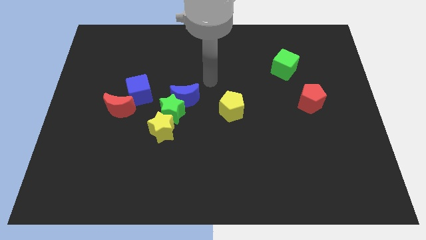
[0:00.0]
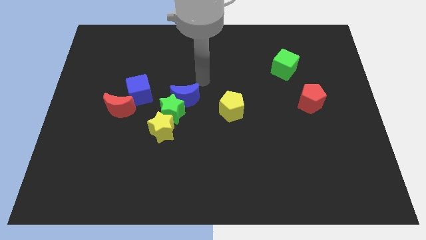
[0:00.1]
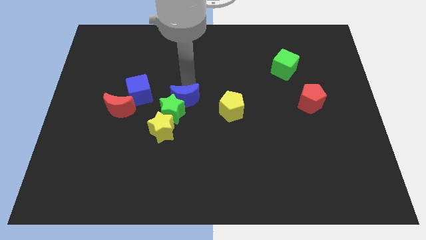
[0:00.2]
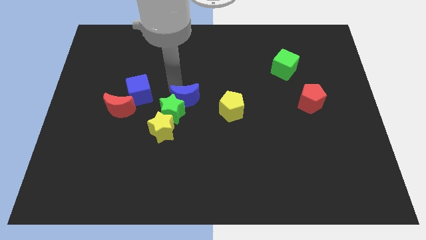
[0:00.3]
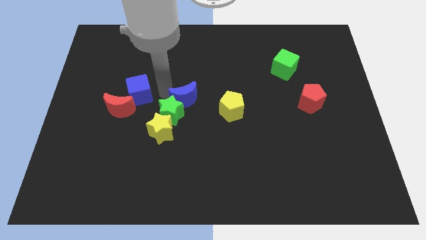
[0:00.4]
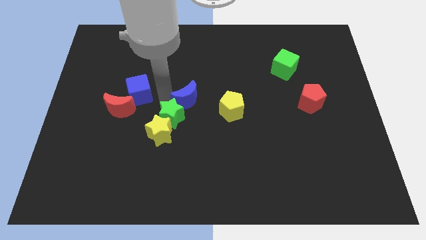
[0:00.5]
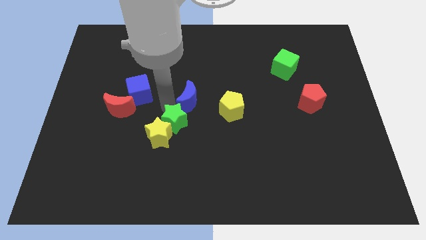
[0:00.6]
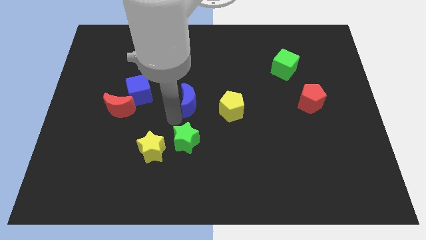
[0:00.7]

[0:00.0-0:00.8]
move the blue moon away from the green star

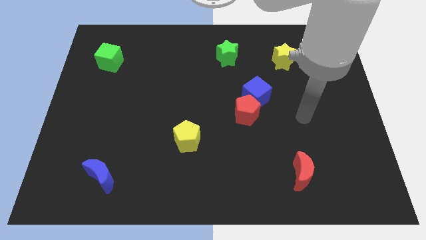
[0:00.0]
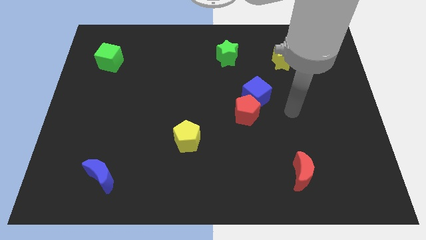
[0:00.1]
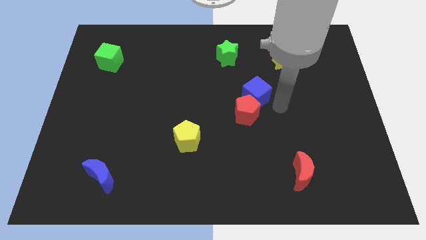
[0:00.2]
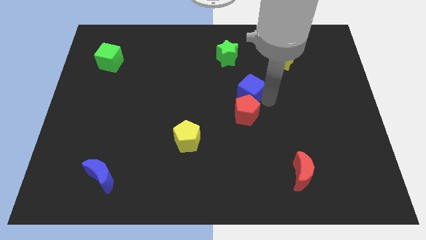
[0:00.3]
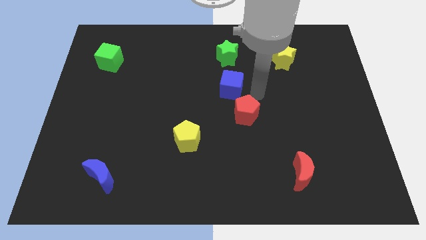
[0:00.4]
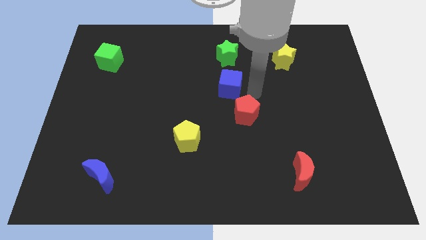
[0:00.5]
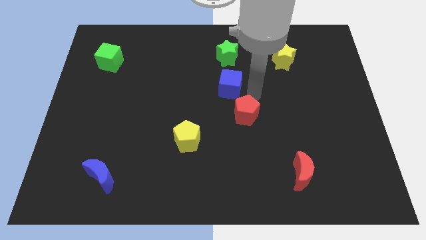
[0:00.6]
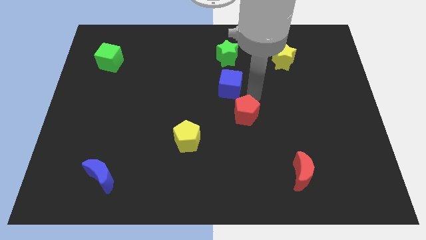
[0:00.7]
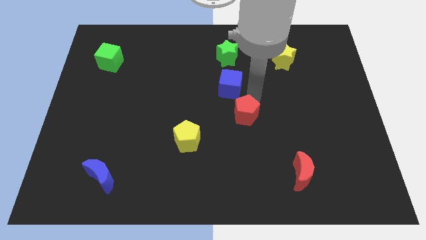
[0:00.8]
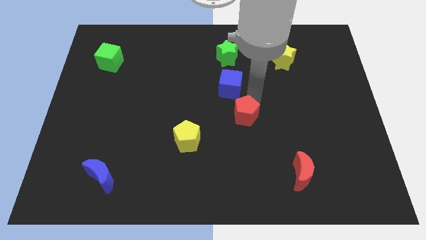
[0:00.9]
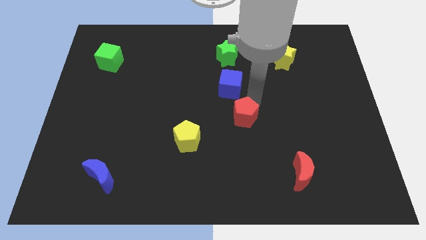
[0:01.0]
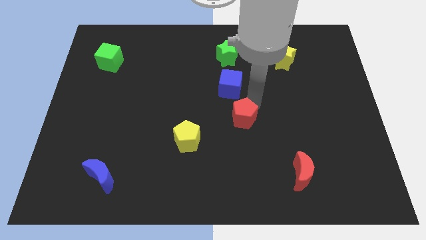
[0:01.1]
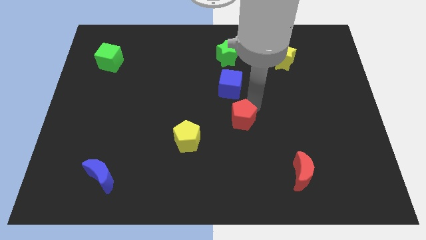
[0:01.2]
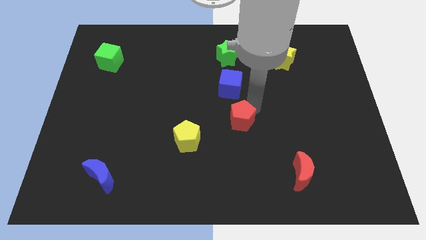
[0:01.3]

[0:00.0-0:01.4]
pull the red pentagon apart from the blue cube

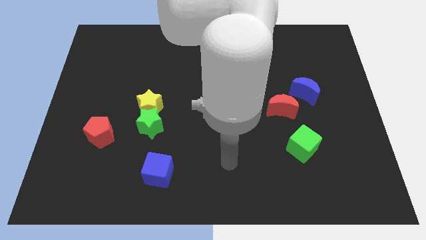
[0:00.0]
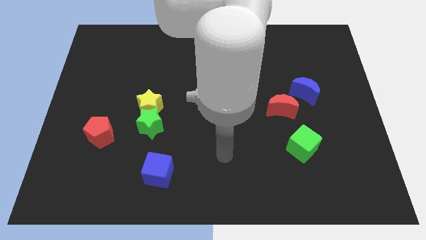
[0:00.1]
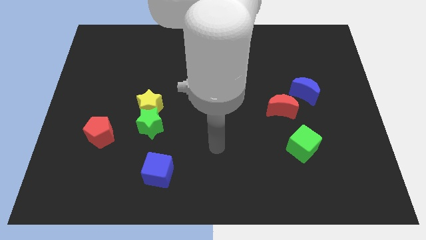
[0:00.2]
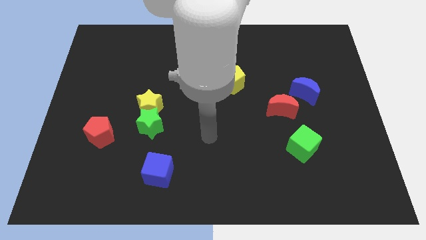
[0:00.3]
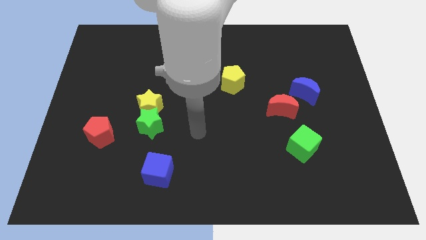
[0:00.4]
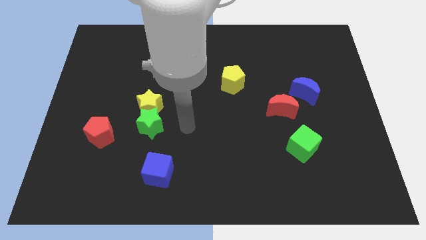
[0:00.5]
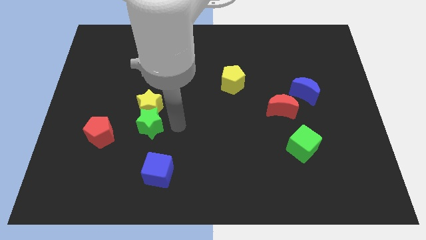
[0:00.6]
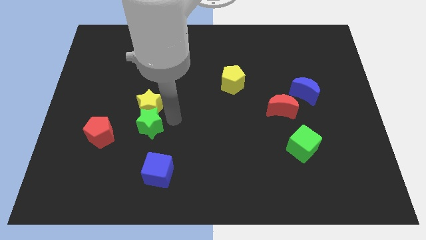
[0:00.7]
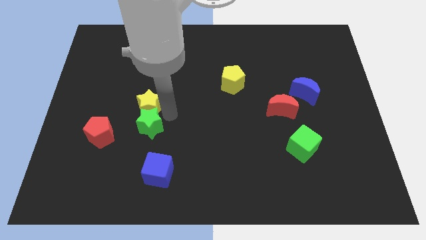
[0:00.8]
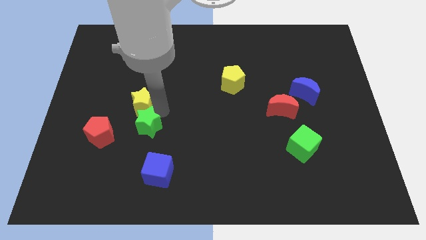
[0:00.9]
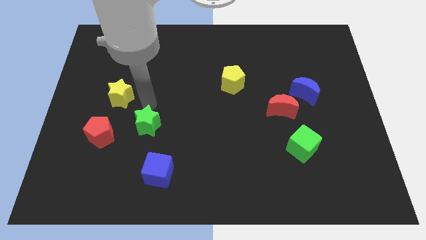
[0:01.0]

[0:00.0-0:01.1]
separate the green star from the yellow star

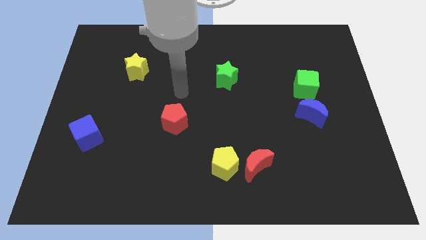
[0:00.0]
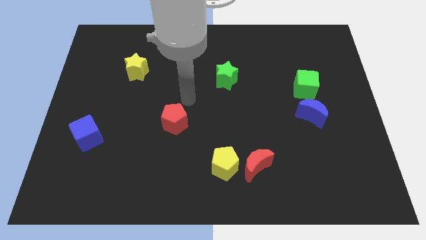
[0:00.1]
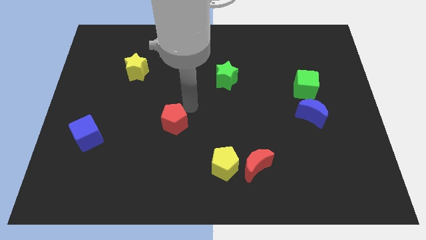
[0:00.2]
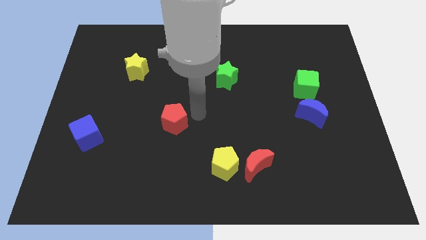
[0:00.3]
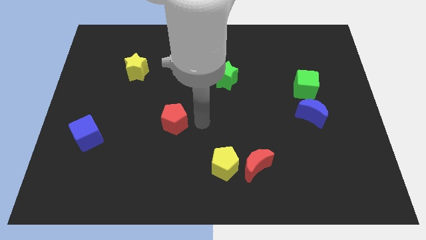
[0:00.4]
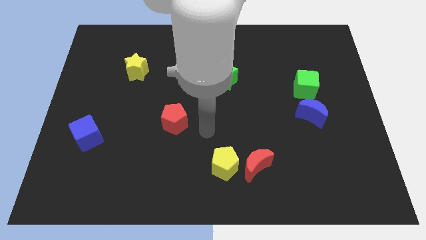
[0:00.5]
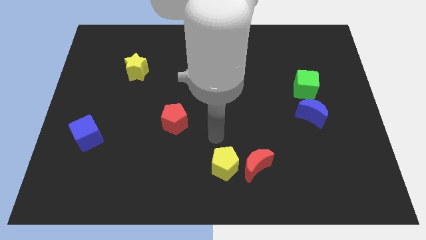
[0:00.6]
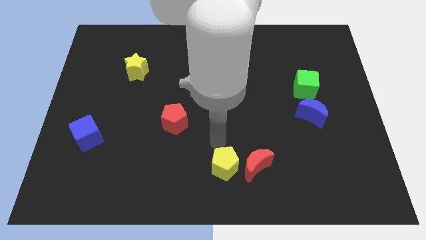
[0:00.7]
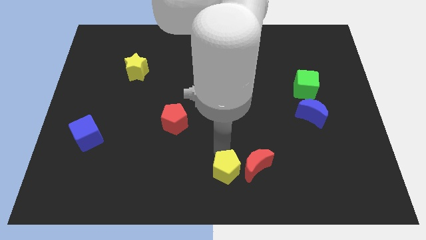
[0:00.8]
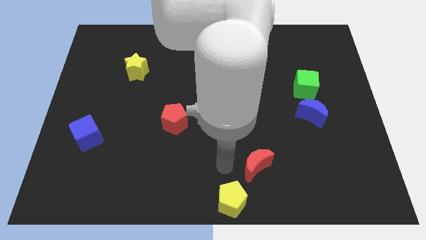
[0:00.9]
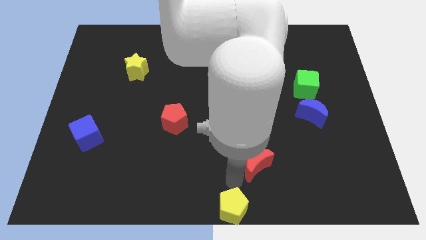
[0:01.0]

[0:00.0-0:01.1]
pull the red moon apart from the yellow pentagon

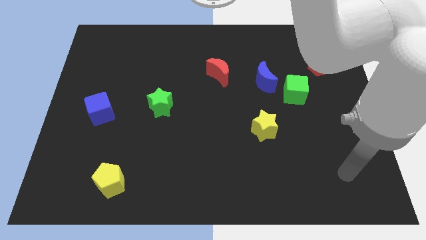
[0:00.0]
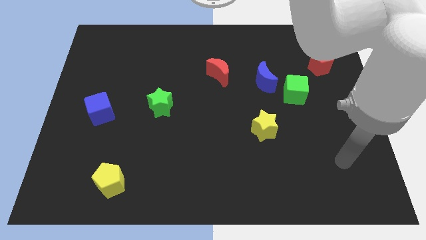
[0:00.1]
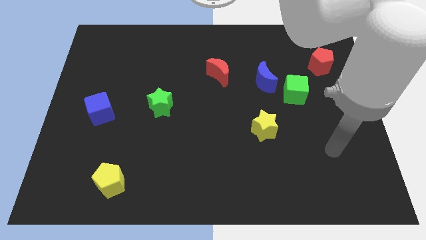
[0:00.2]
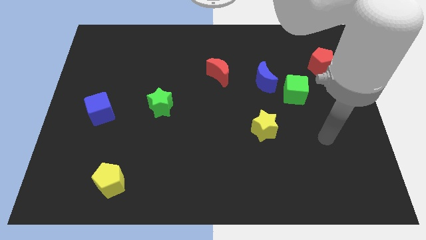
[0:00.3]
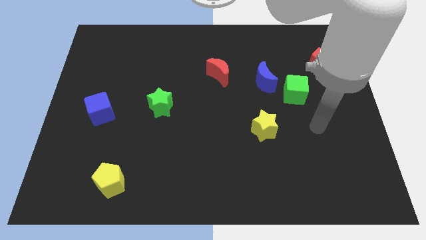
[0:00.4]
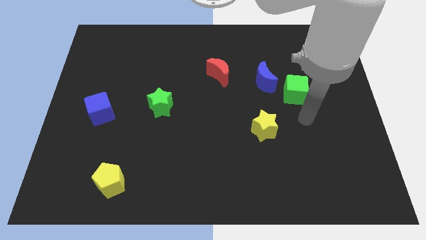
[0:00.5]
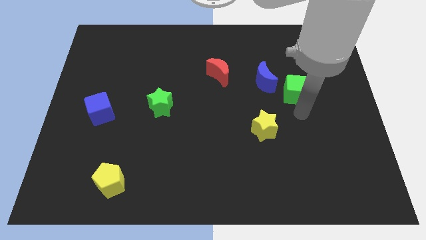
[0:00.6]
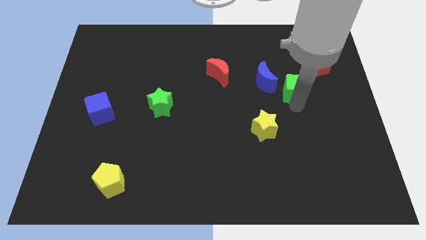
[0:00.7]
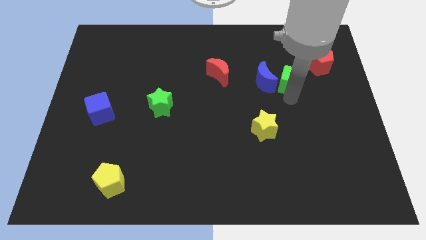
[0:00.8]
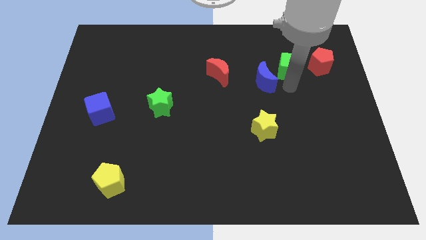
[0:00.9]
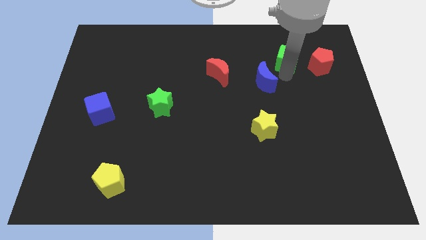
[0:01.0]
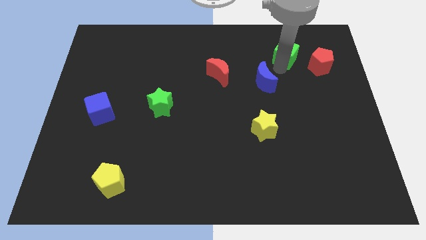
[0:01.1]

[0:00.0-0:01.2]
move the blue moon away from the green cube

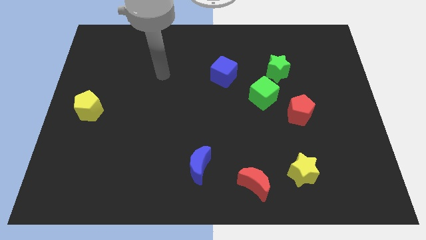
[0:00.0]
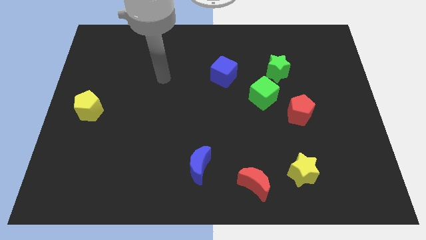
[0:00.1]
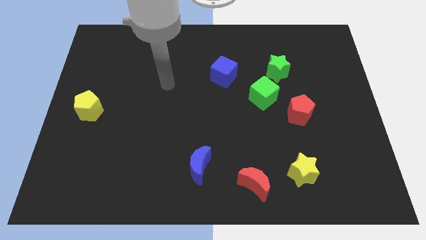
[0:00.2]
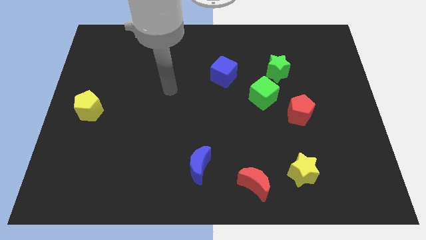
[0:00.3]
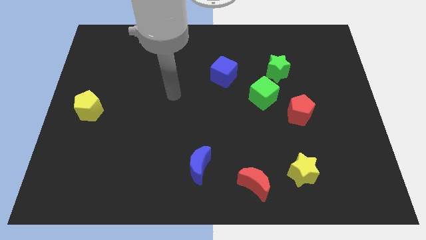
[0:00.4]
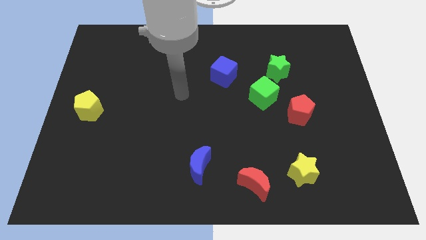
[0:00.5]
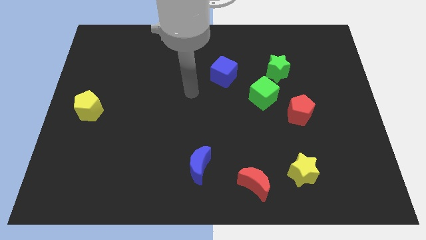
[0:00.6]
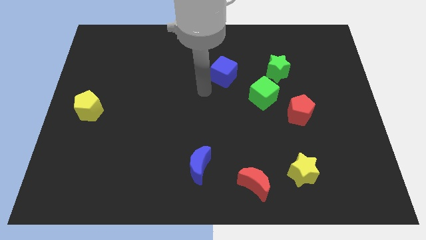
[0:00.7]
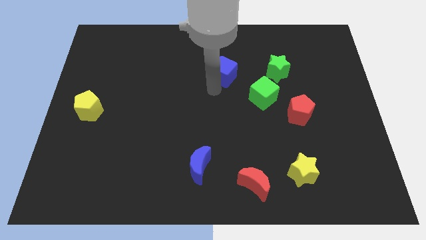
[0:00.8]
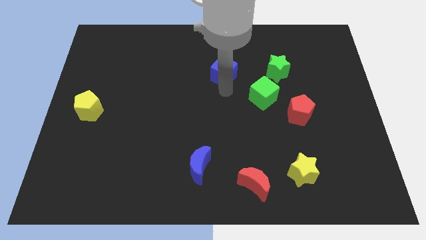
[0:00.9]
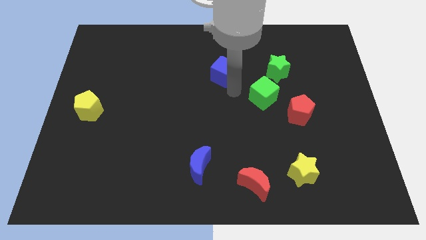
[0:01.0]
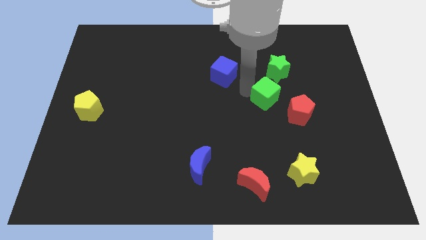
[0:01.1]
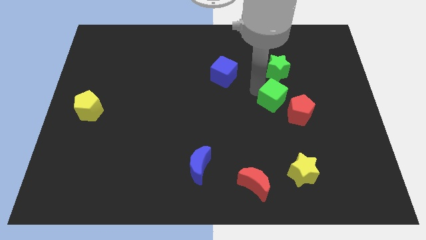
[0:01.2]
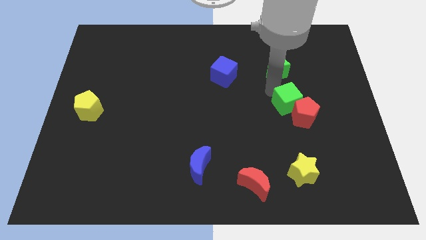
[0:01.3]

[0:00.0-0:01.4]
separate the green star from the green cube

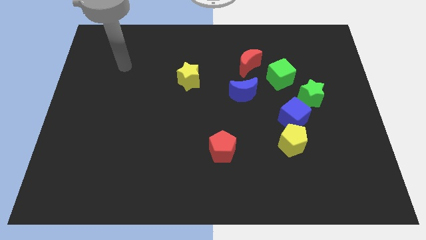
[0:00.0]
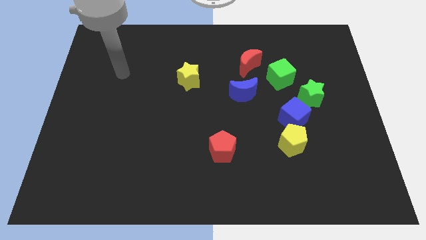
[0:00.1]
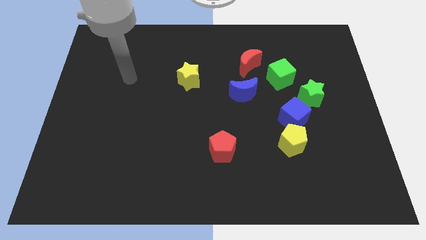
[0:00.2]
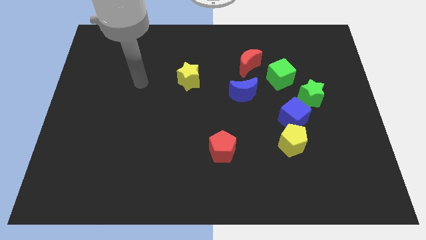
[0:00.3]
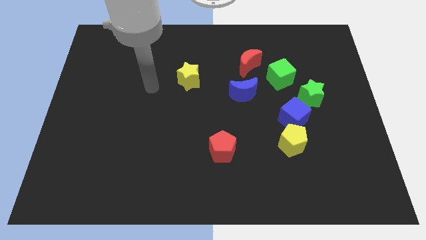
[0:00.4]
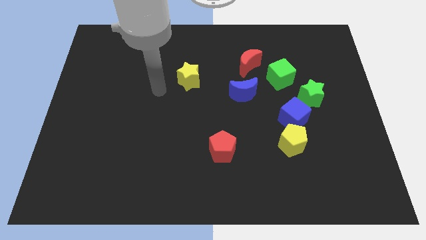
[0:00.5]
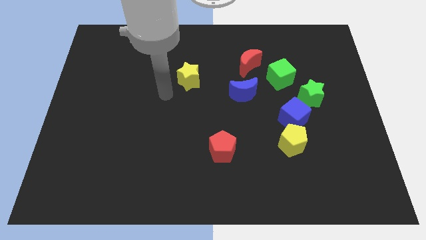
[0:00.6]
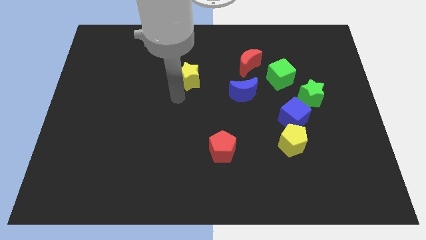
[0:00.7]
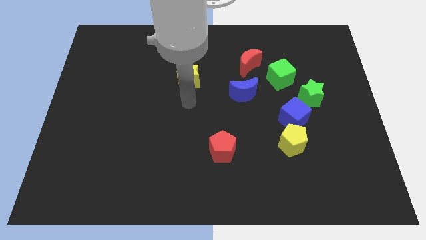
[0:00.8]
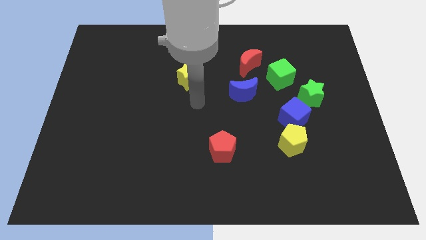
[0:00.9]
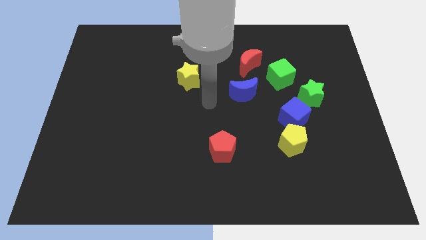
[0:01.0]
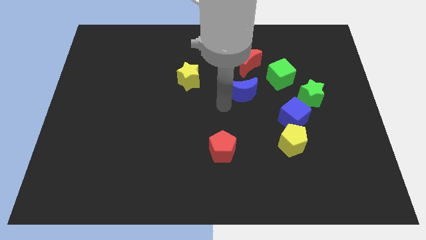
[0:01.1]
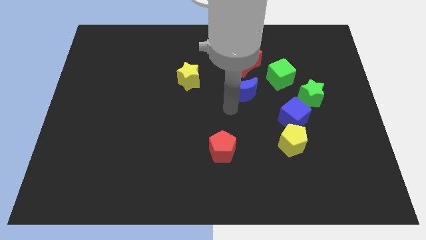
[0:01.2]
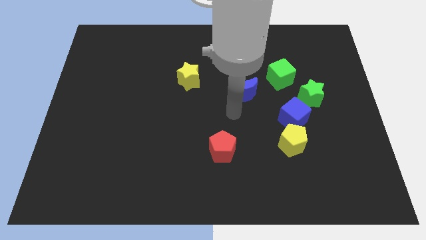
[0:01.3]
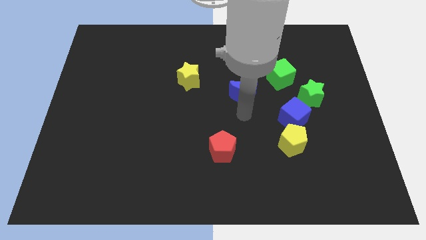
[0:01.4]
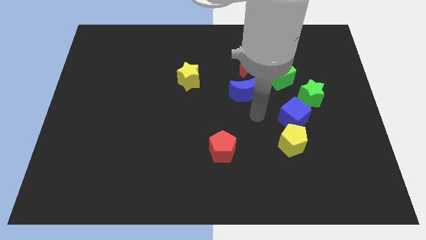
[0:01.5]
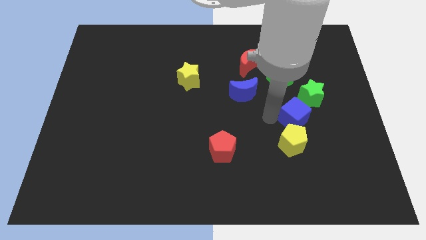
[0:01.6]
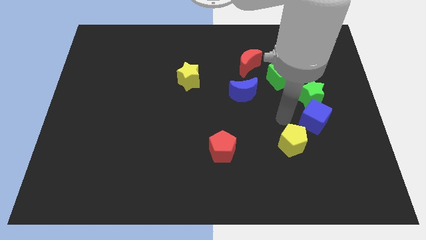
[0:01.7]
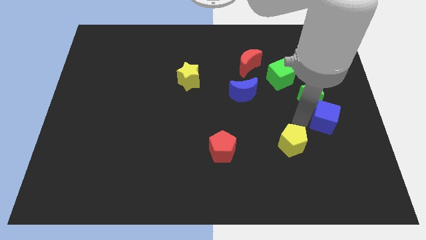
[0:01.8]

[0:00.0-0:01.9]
move the yellow pentagon away from the blue cube

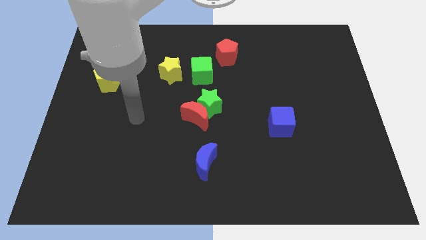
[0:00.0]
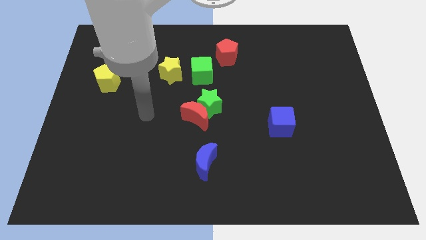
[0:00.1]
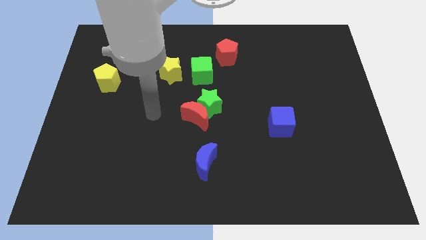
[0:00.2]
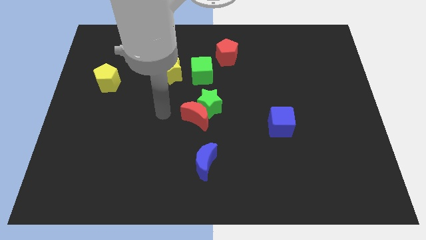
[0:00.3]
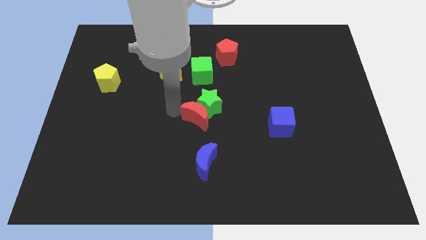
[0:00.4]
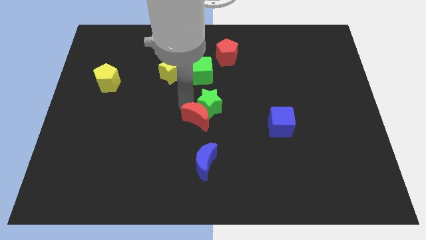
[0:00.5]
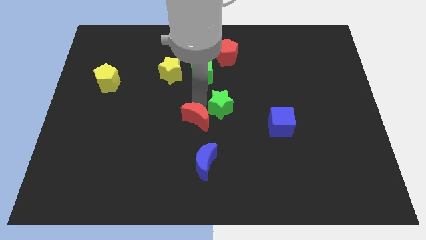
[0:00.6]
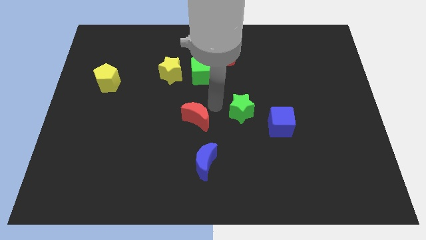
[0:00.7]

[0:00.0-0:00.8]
move the red moon away from the green star
